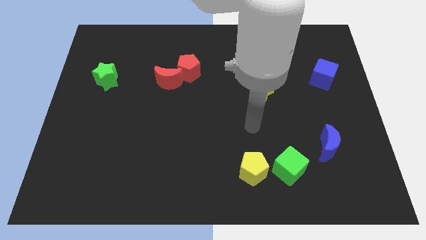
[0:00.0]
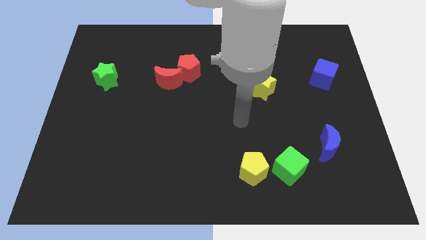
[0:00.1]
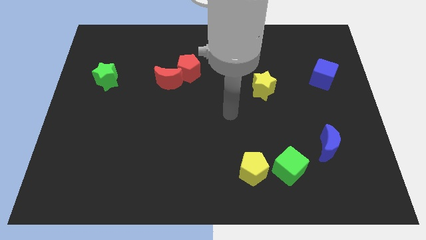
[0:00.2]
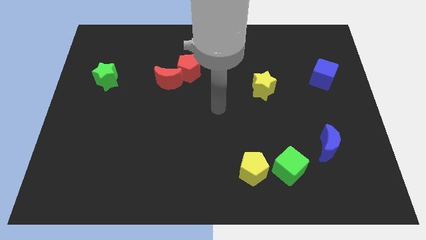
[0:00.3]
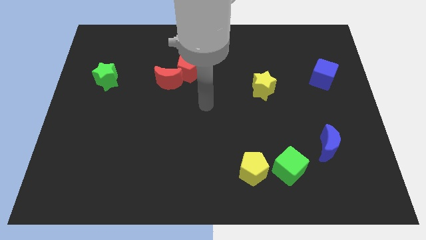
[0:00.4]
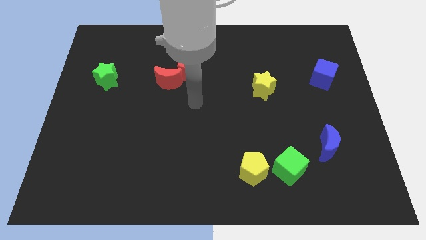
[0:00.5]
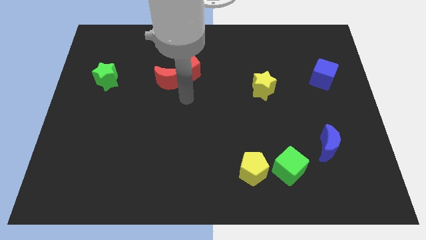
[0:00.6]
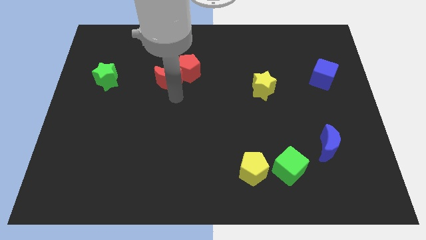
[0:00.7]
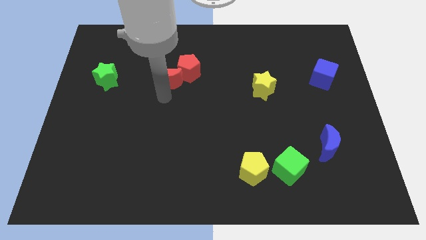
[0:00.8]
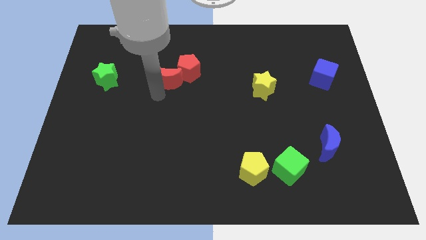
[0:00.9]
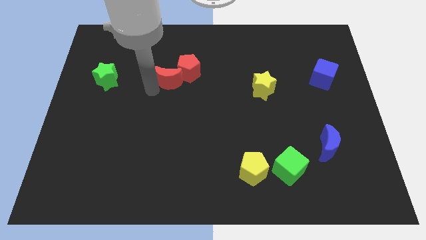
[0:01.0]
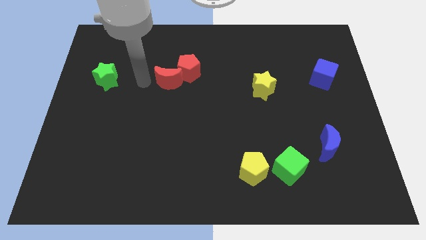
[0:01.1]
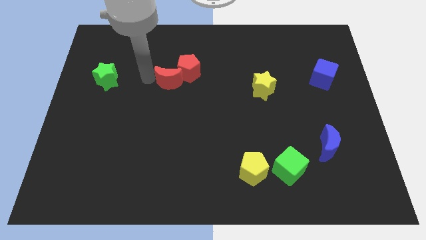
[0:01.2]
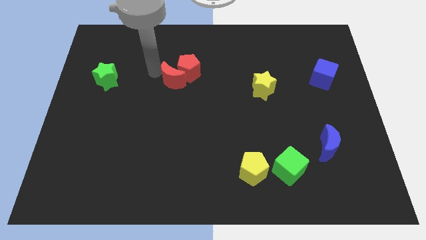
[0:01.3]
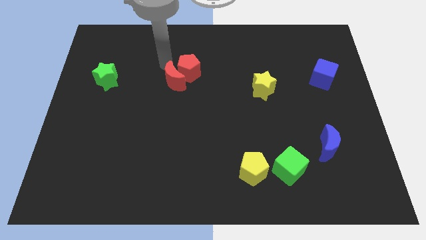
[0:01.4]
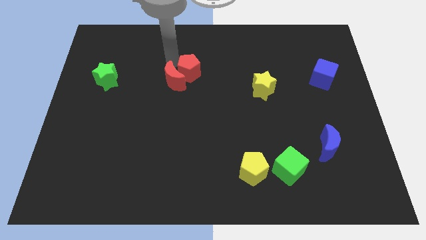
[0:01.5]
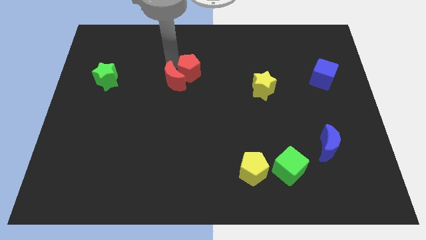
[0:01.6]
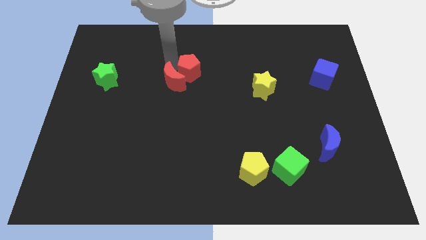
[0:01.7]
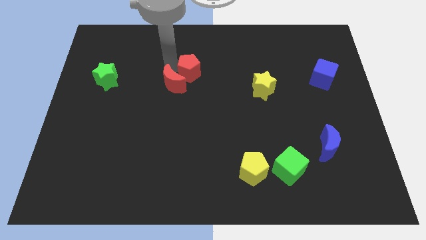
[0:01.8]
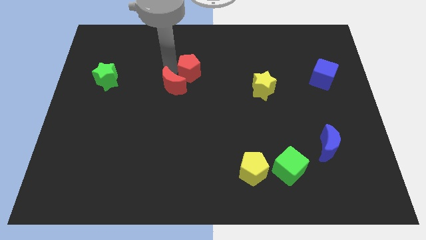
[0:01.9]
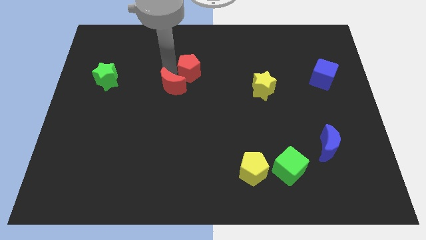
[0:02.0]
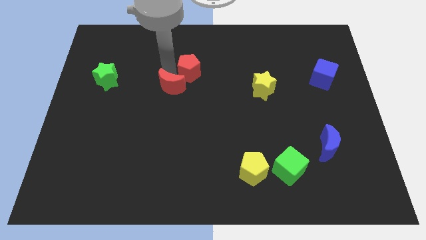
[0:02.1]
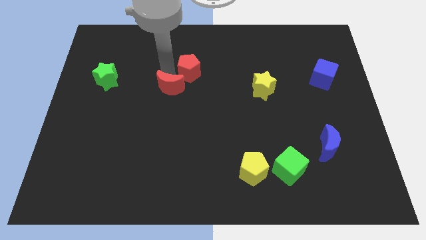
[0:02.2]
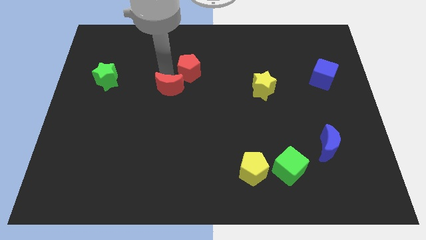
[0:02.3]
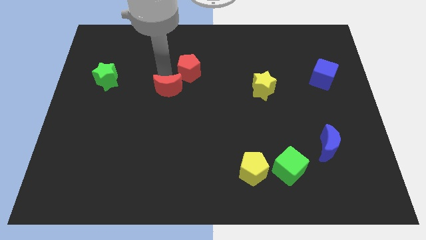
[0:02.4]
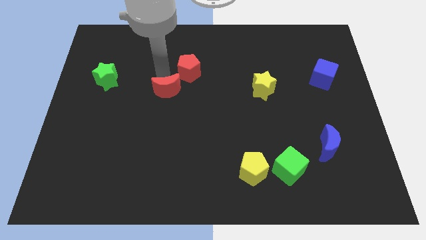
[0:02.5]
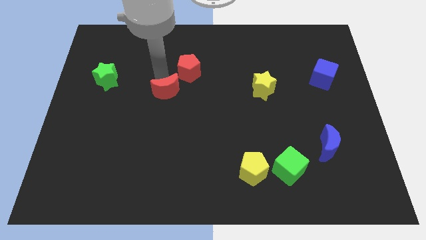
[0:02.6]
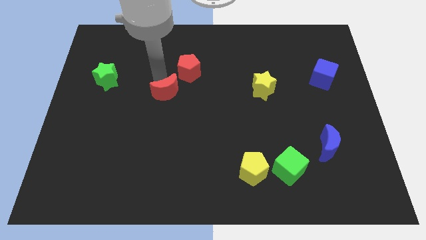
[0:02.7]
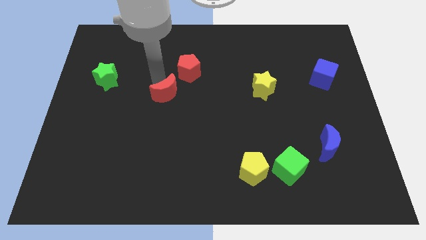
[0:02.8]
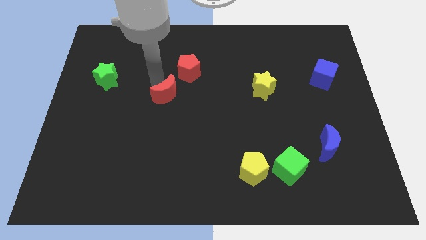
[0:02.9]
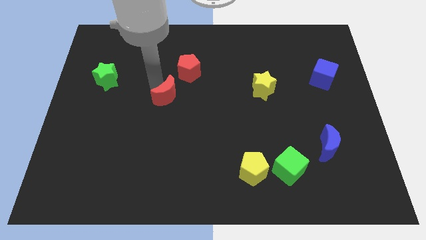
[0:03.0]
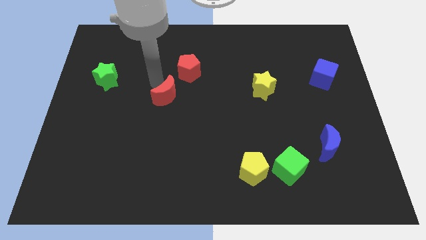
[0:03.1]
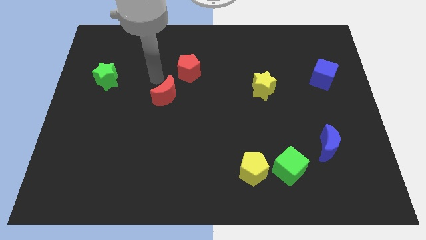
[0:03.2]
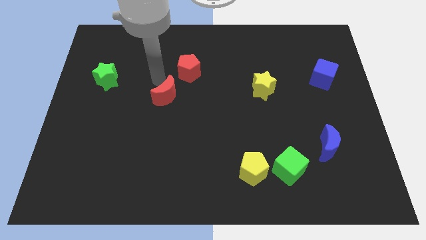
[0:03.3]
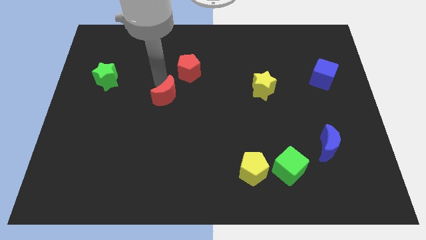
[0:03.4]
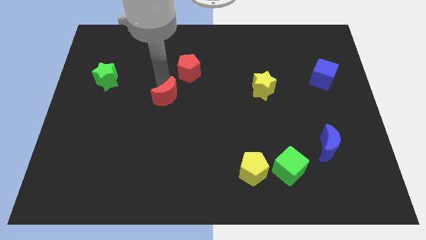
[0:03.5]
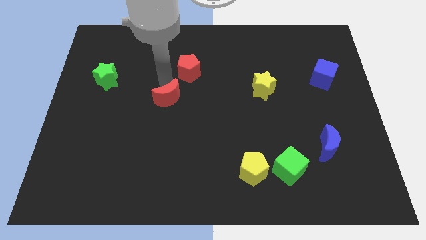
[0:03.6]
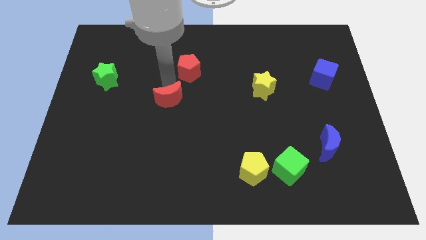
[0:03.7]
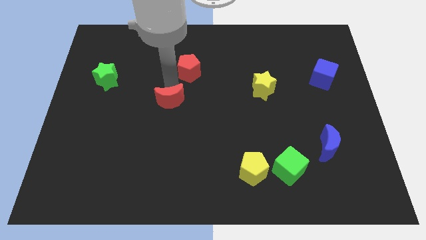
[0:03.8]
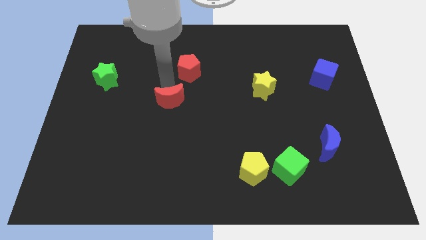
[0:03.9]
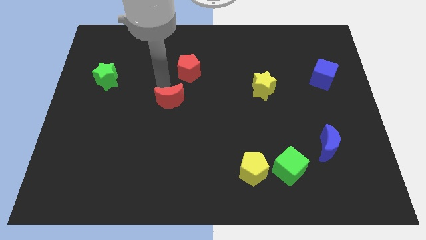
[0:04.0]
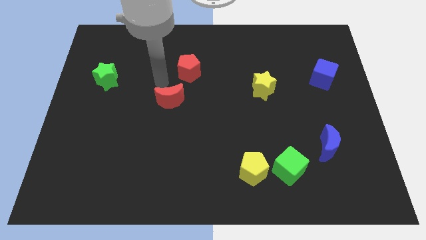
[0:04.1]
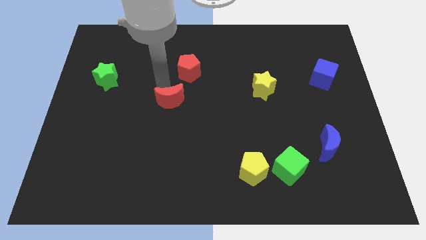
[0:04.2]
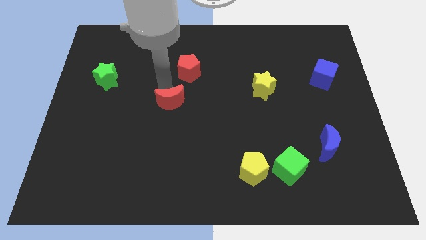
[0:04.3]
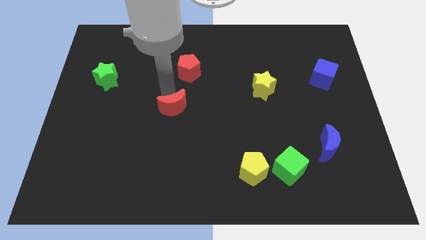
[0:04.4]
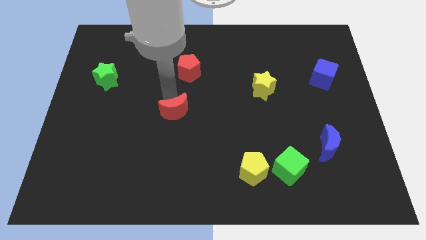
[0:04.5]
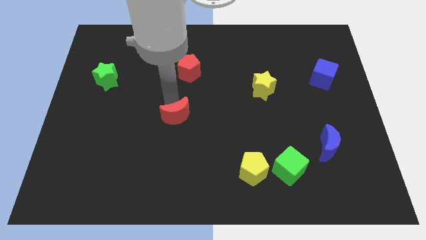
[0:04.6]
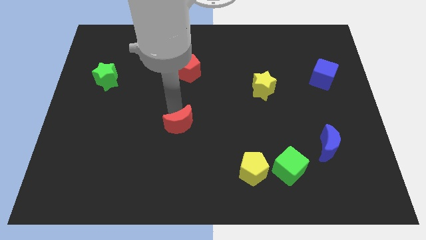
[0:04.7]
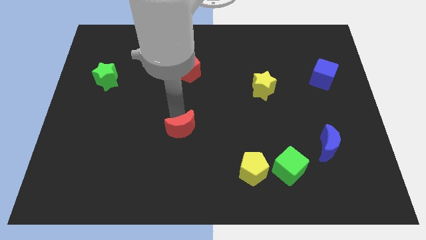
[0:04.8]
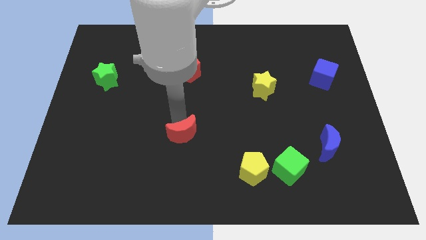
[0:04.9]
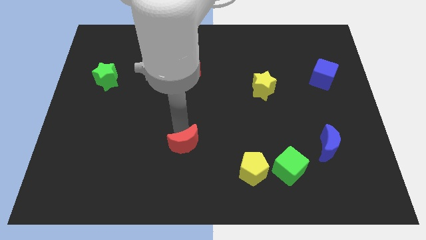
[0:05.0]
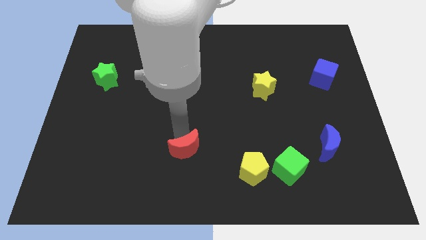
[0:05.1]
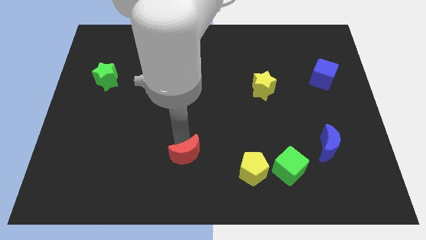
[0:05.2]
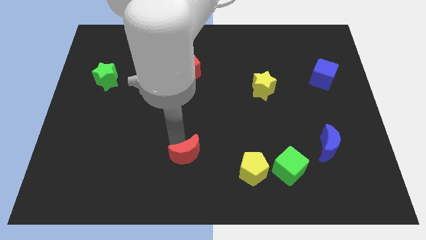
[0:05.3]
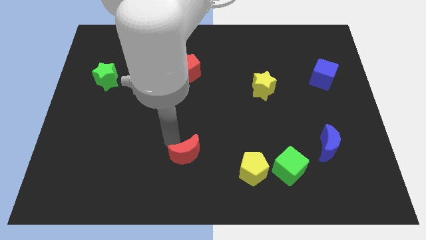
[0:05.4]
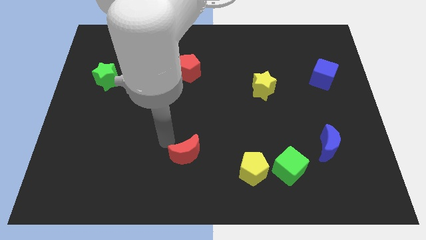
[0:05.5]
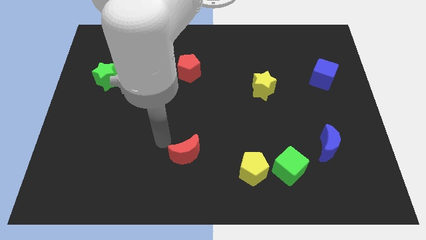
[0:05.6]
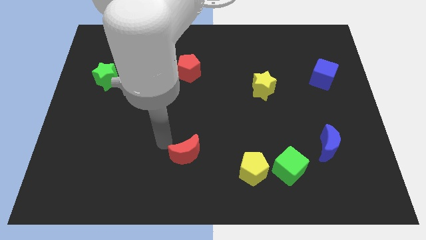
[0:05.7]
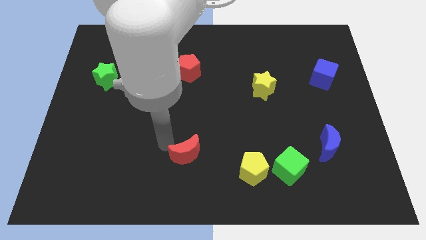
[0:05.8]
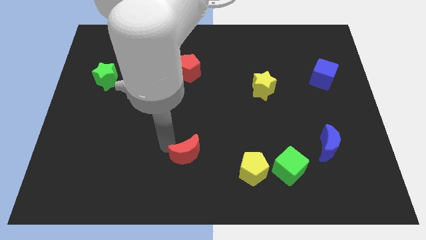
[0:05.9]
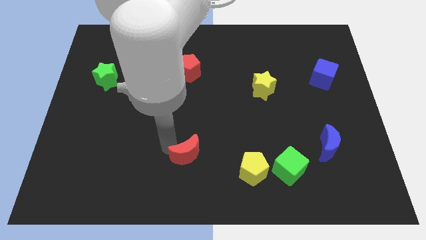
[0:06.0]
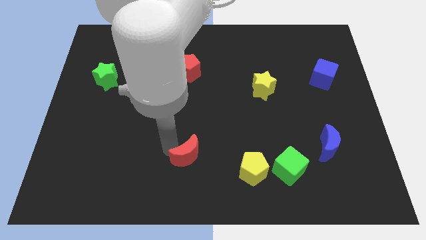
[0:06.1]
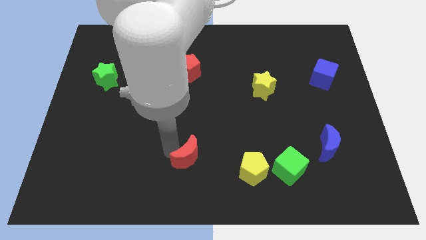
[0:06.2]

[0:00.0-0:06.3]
push the red moon to the bottom side

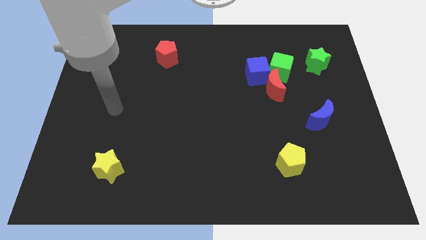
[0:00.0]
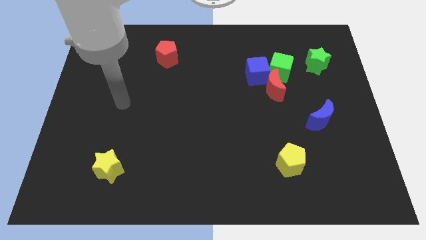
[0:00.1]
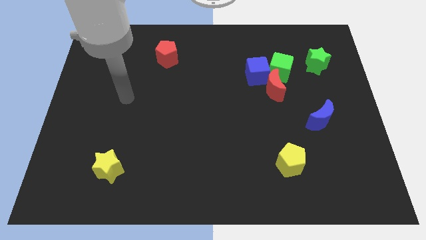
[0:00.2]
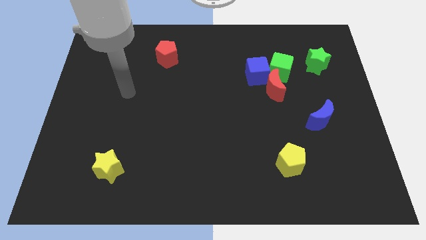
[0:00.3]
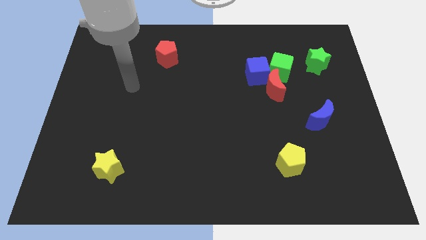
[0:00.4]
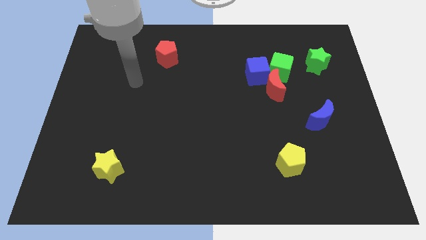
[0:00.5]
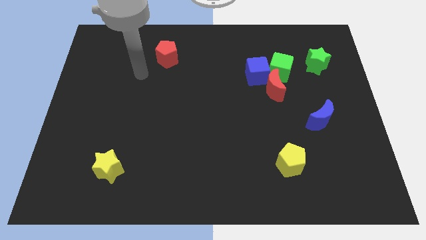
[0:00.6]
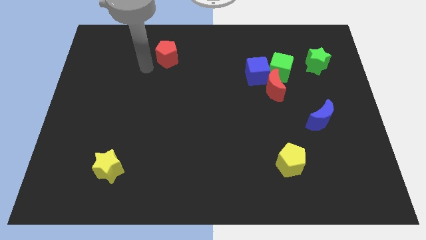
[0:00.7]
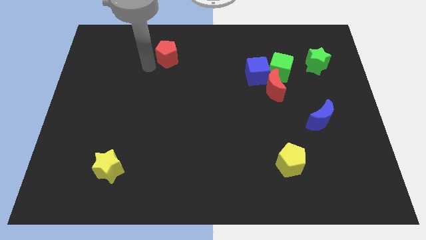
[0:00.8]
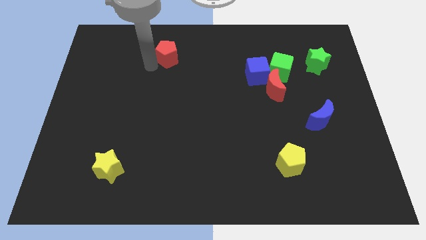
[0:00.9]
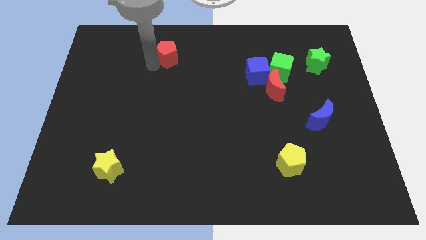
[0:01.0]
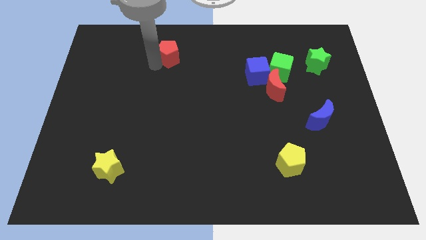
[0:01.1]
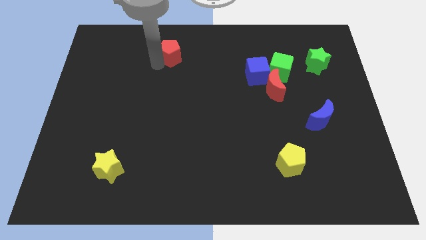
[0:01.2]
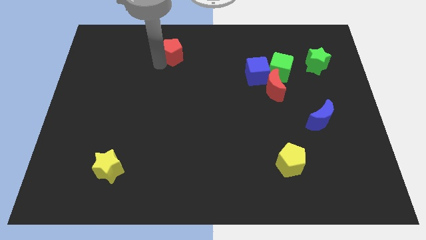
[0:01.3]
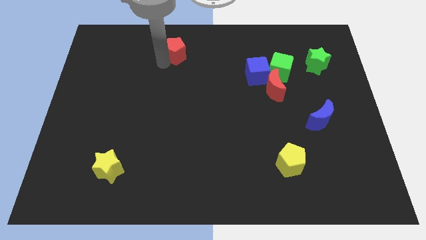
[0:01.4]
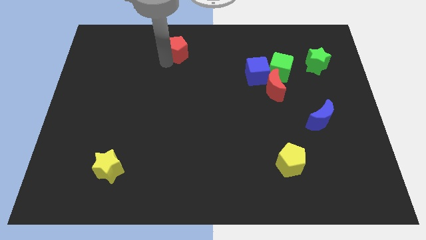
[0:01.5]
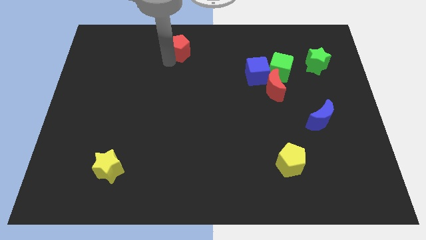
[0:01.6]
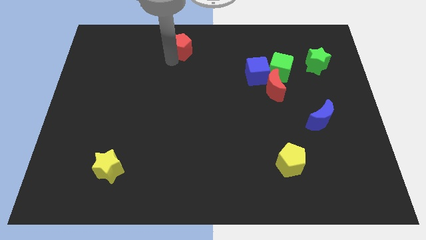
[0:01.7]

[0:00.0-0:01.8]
move the red pentagon to the top
